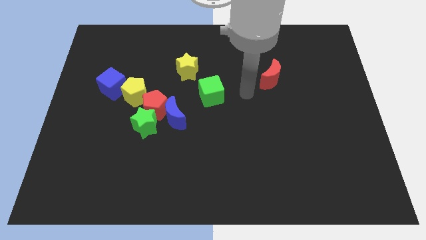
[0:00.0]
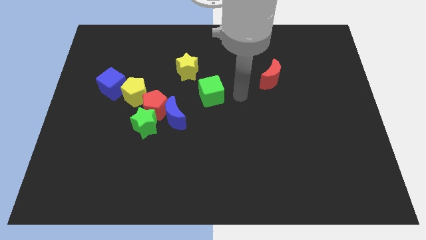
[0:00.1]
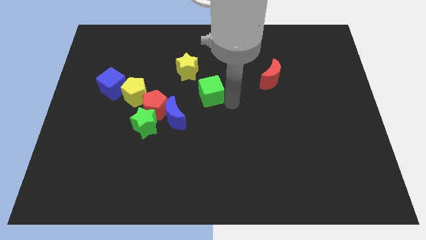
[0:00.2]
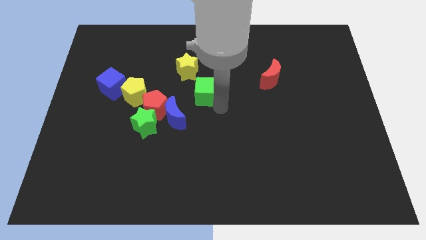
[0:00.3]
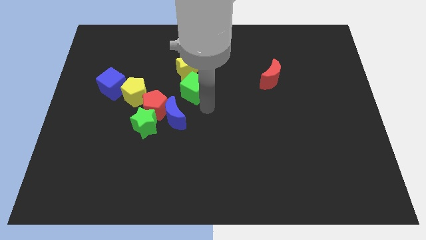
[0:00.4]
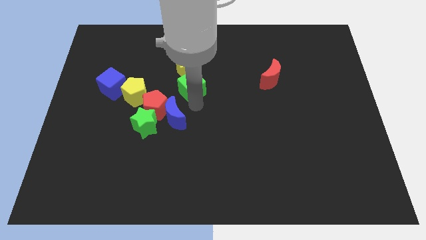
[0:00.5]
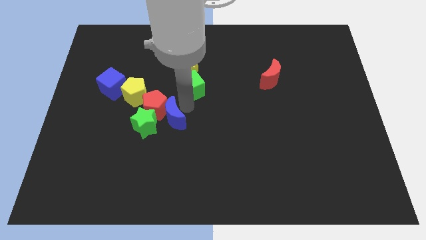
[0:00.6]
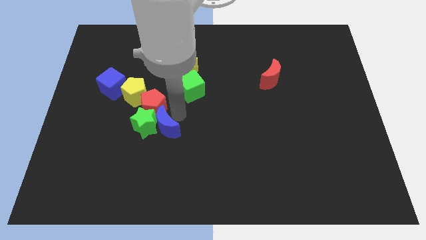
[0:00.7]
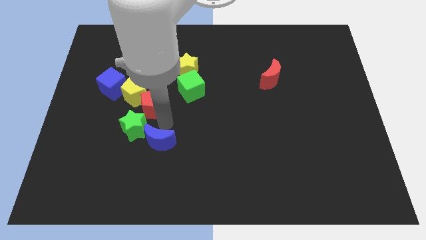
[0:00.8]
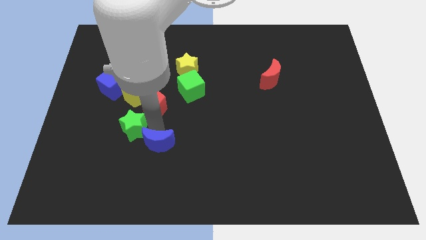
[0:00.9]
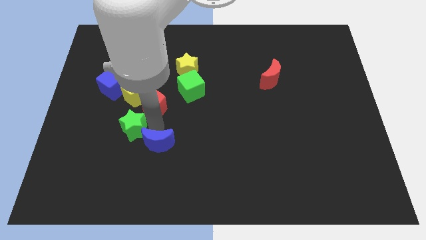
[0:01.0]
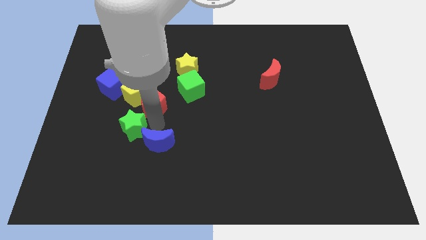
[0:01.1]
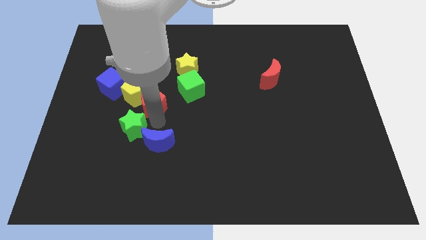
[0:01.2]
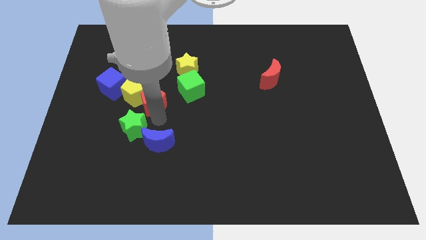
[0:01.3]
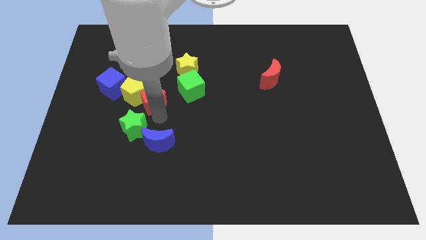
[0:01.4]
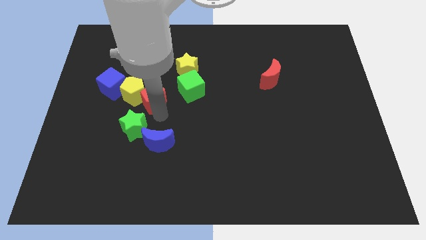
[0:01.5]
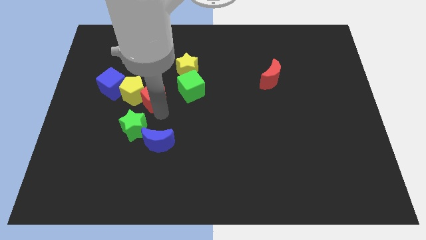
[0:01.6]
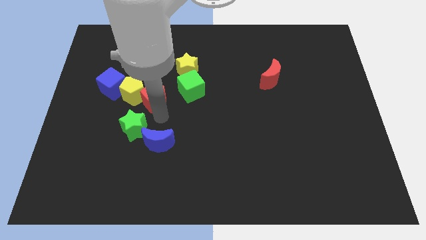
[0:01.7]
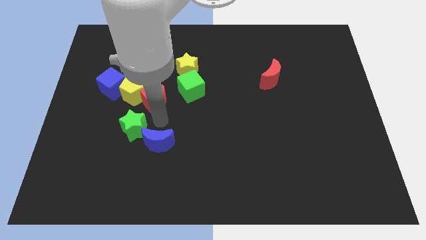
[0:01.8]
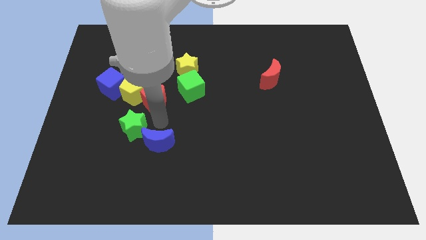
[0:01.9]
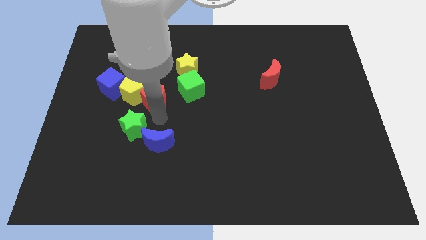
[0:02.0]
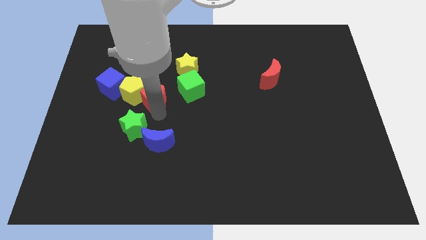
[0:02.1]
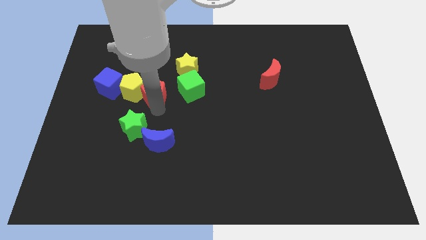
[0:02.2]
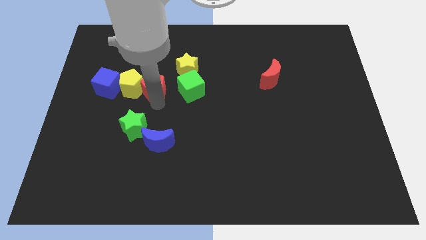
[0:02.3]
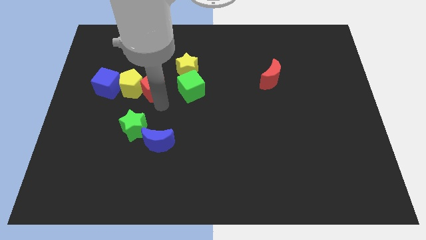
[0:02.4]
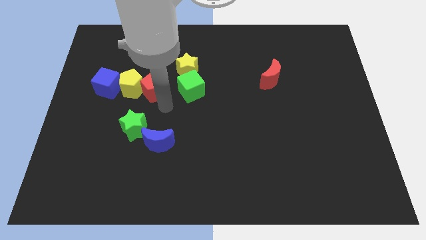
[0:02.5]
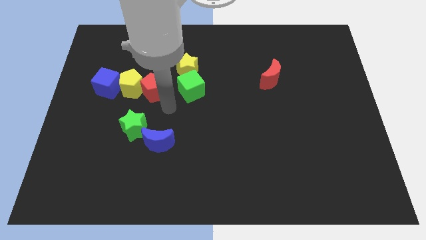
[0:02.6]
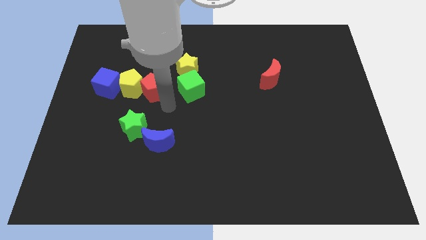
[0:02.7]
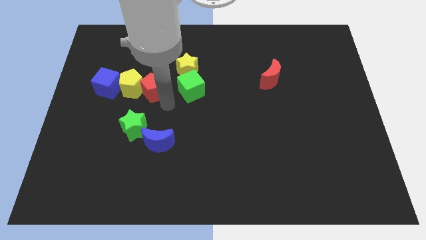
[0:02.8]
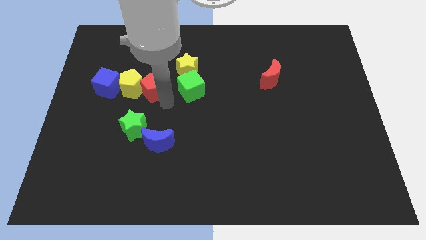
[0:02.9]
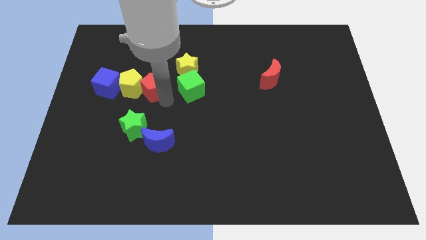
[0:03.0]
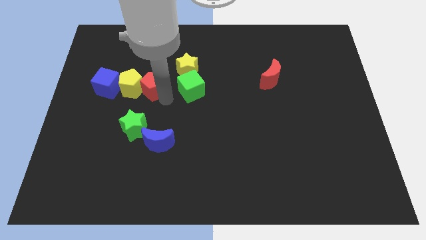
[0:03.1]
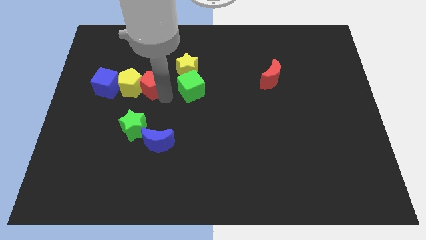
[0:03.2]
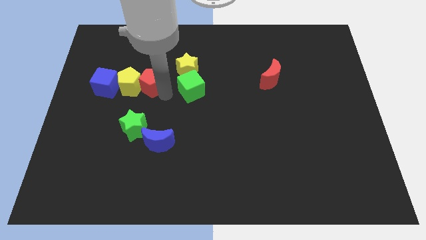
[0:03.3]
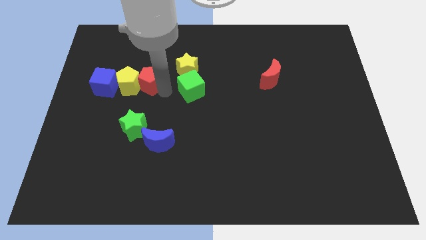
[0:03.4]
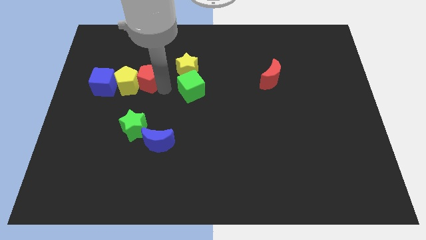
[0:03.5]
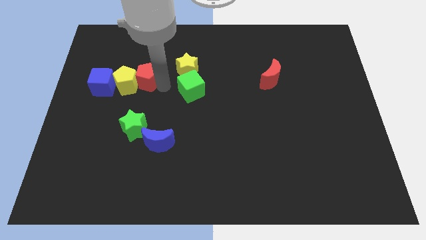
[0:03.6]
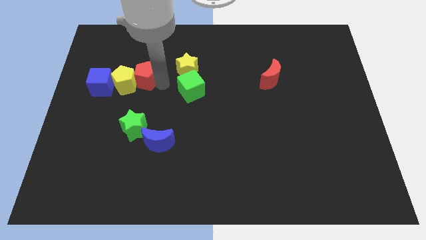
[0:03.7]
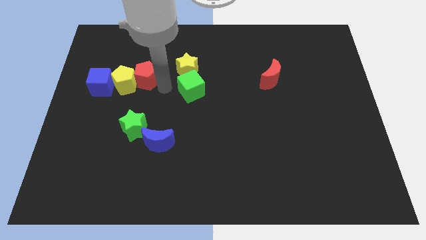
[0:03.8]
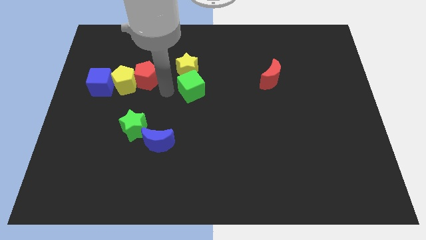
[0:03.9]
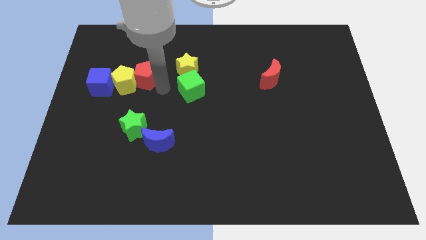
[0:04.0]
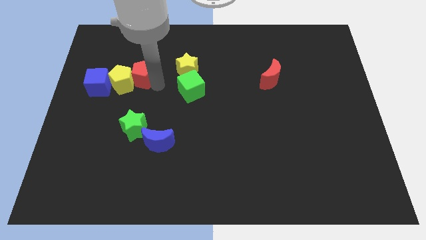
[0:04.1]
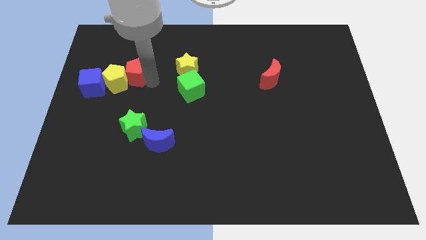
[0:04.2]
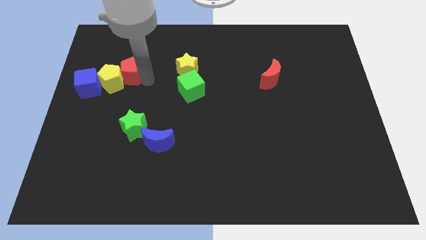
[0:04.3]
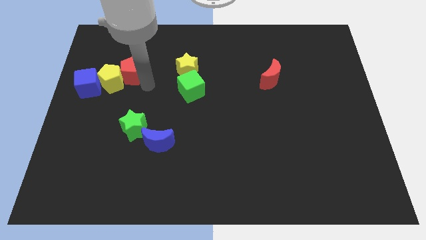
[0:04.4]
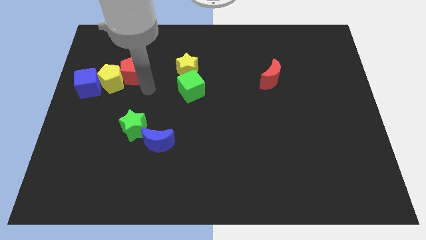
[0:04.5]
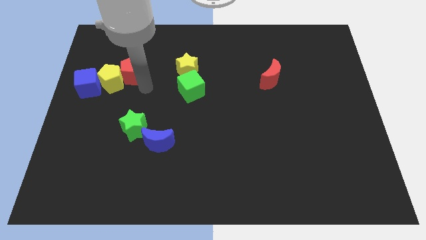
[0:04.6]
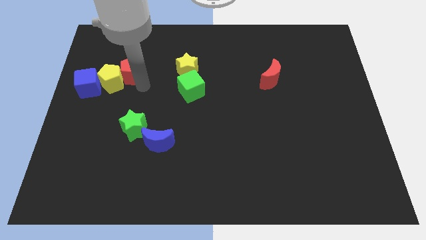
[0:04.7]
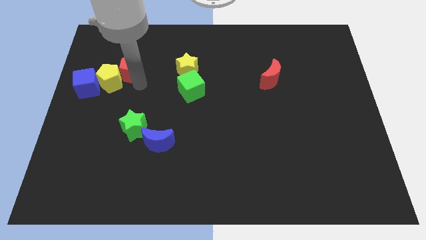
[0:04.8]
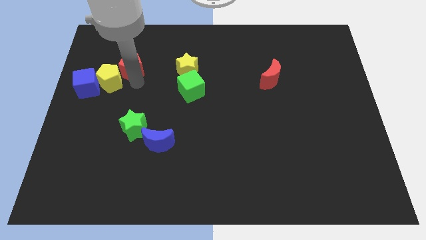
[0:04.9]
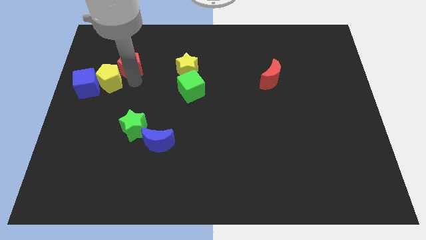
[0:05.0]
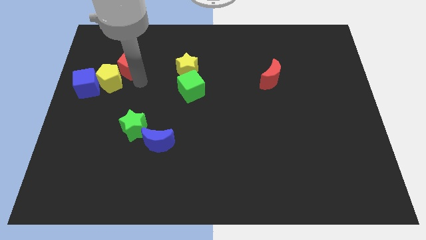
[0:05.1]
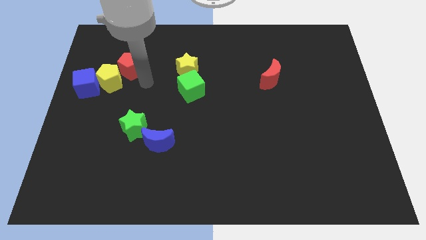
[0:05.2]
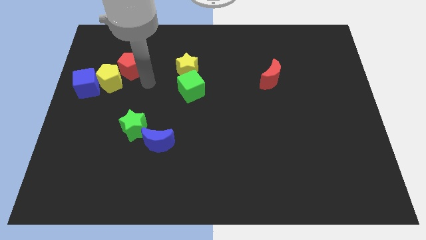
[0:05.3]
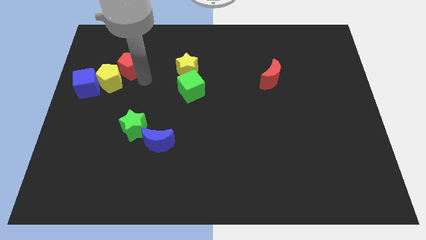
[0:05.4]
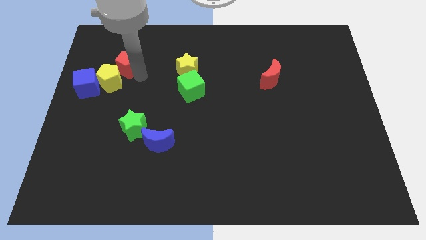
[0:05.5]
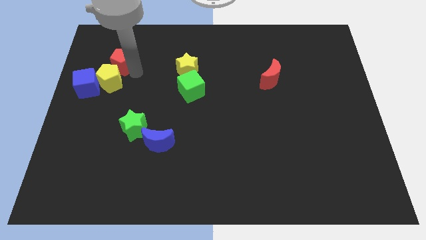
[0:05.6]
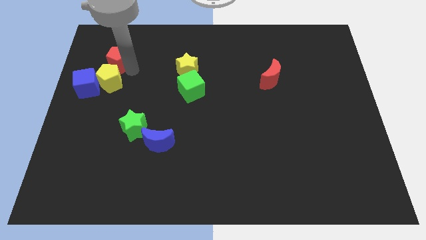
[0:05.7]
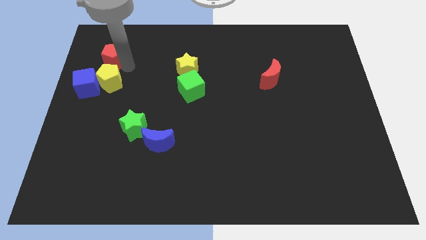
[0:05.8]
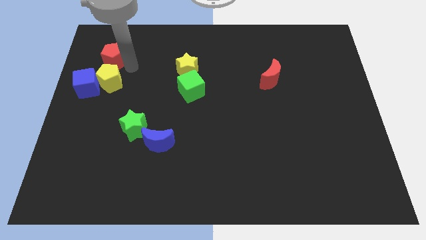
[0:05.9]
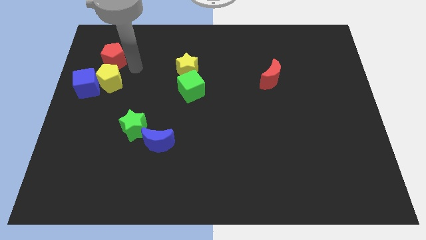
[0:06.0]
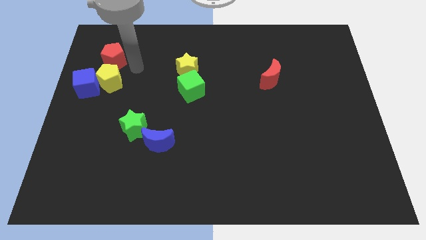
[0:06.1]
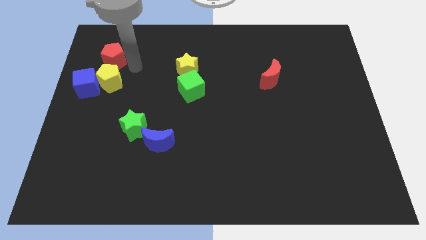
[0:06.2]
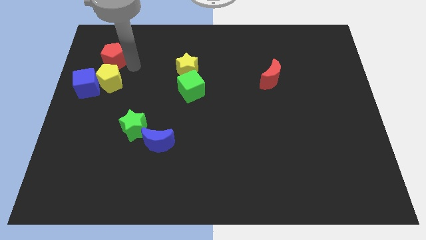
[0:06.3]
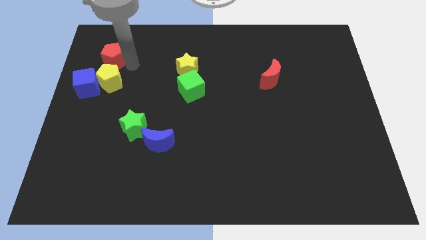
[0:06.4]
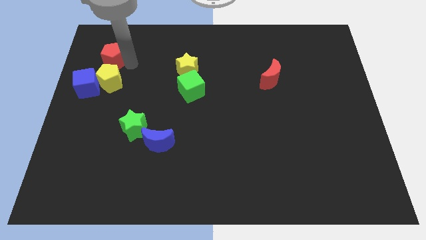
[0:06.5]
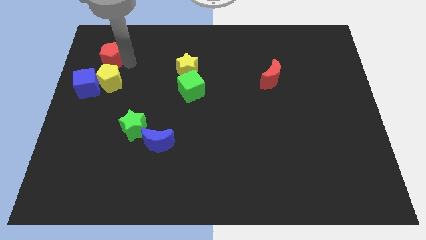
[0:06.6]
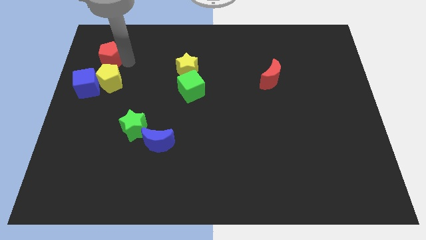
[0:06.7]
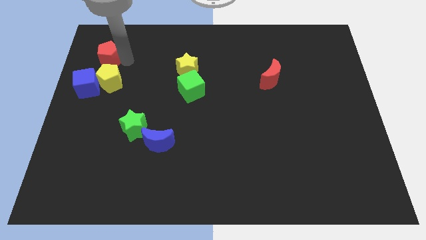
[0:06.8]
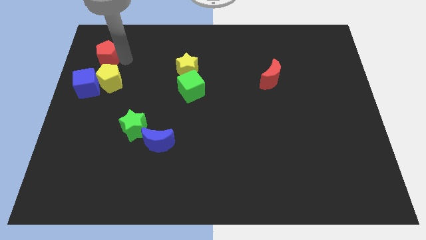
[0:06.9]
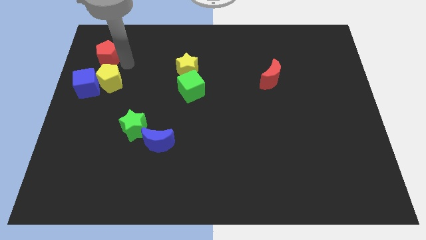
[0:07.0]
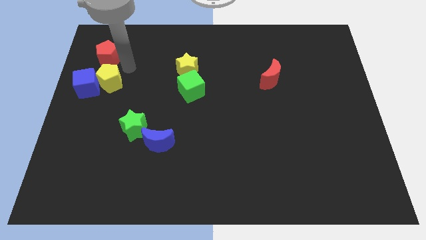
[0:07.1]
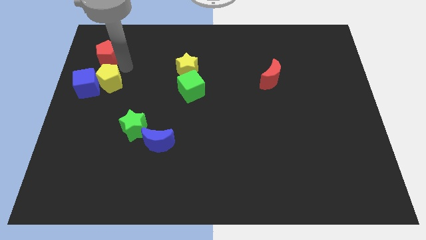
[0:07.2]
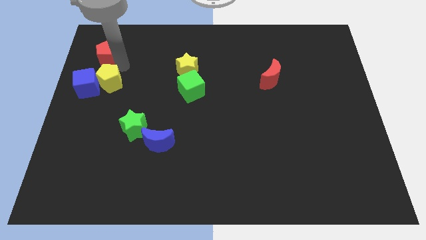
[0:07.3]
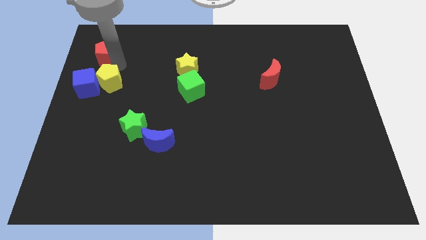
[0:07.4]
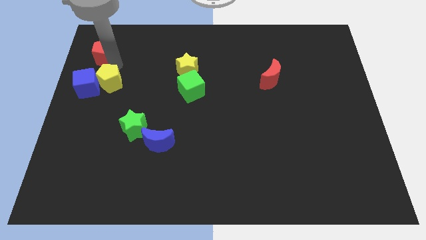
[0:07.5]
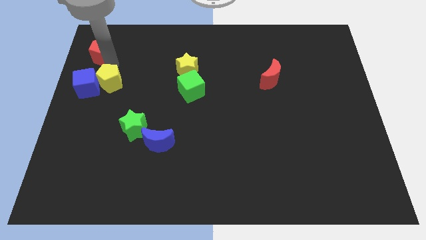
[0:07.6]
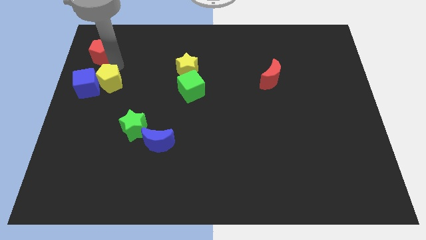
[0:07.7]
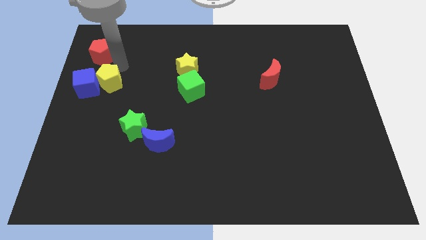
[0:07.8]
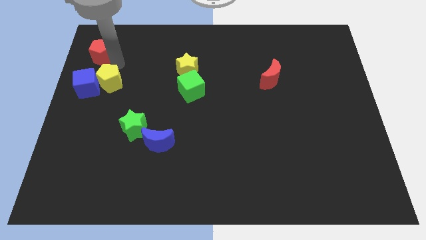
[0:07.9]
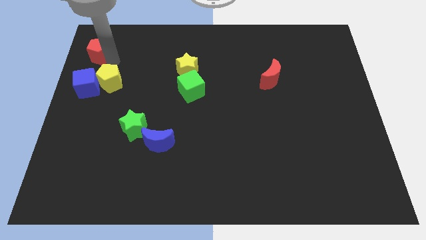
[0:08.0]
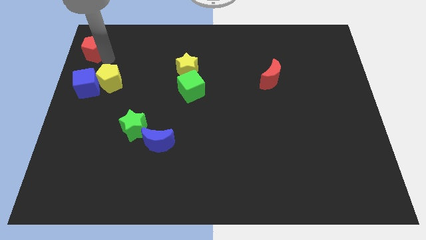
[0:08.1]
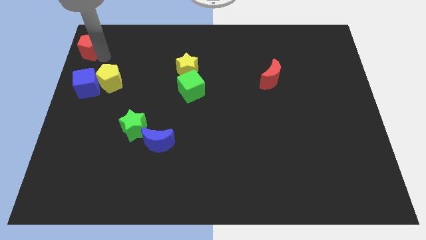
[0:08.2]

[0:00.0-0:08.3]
push the red pentagon to the upper left corner
